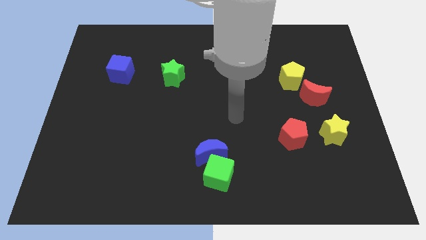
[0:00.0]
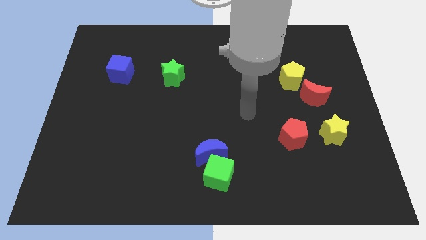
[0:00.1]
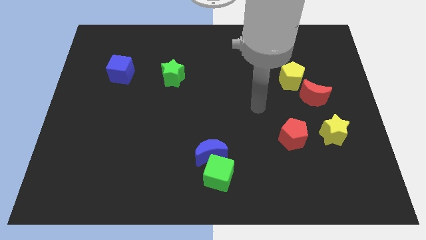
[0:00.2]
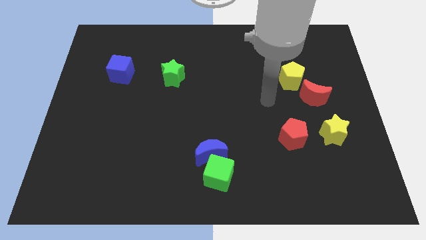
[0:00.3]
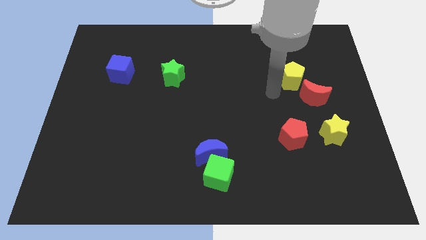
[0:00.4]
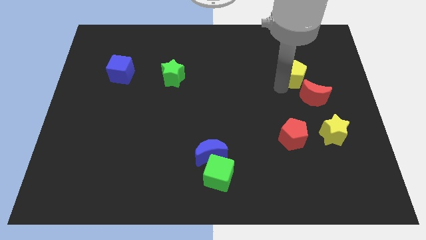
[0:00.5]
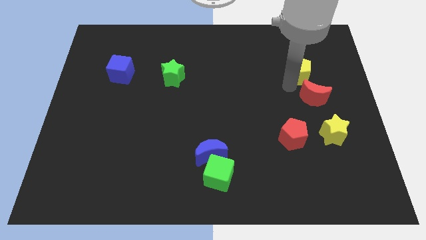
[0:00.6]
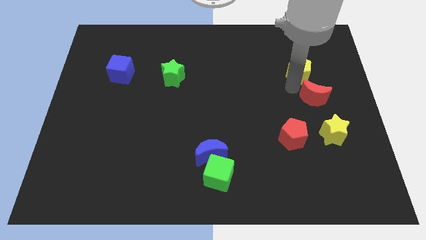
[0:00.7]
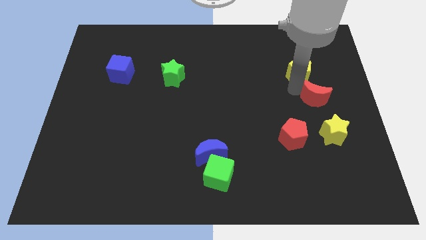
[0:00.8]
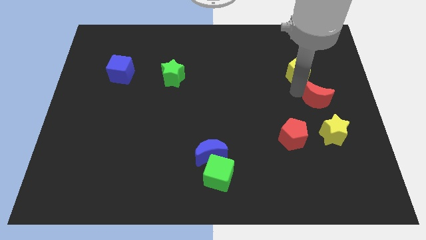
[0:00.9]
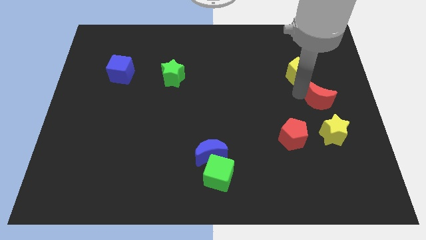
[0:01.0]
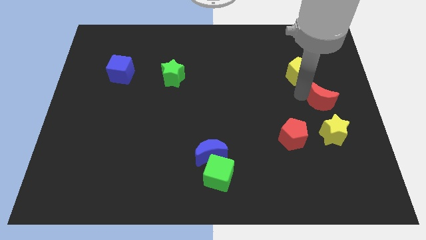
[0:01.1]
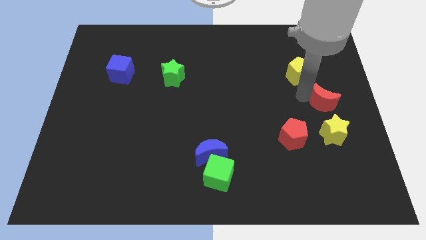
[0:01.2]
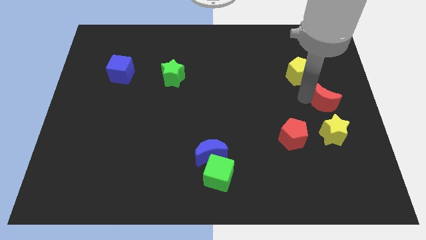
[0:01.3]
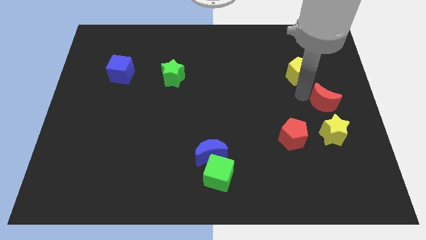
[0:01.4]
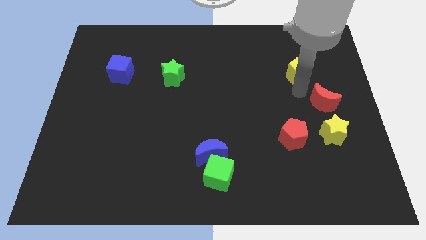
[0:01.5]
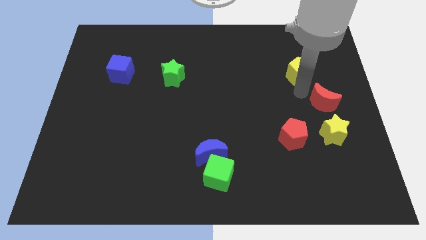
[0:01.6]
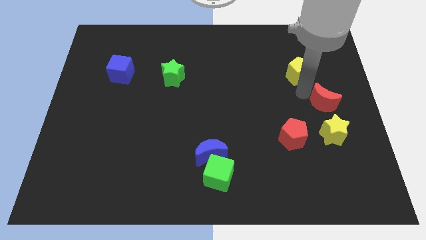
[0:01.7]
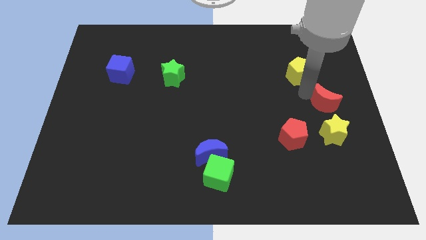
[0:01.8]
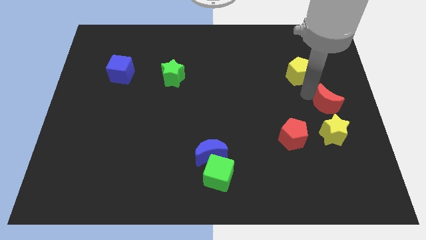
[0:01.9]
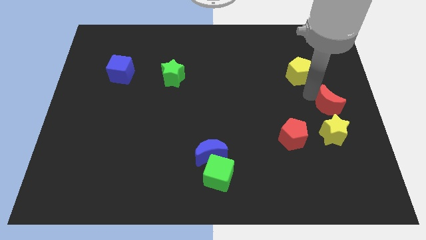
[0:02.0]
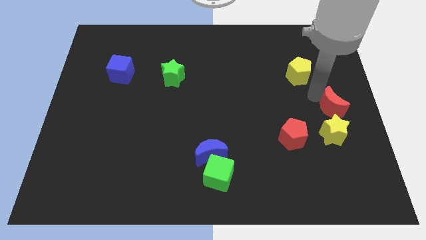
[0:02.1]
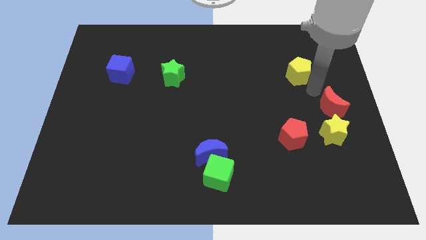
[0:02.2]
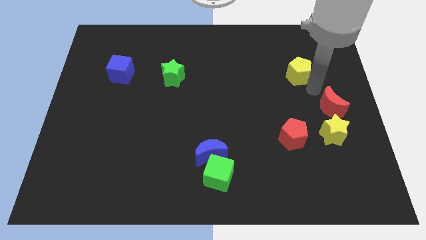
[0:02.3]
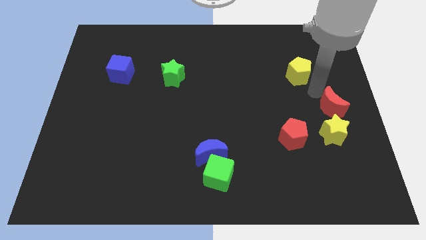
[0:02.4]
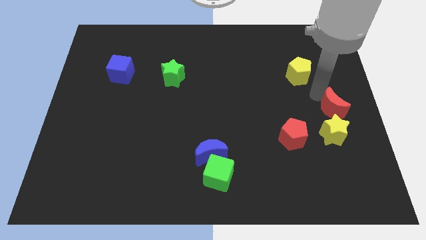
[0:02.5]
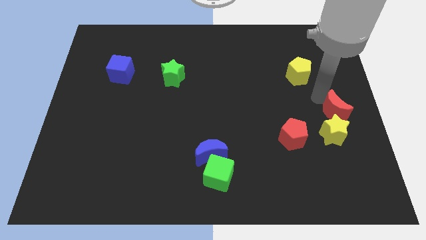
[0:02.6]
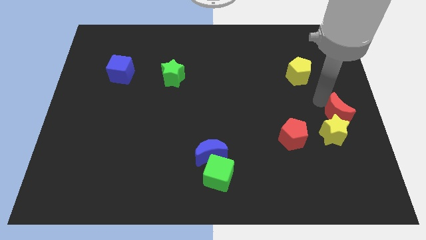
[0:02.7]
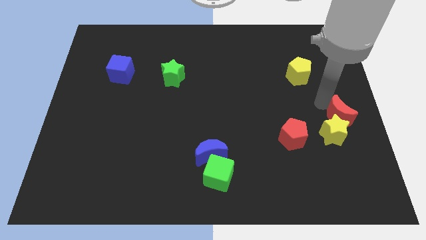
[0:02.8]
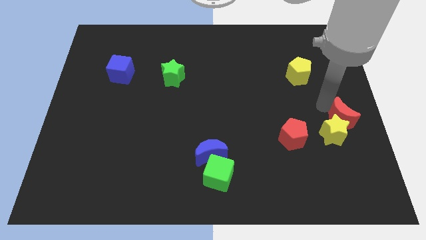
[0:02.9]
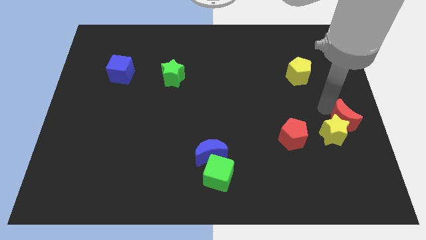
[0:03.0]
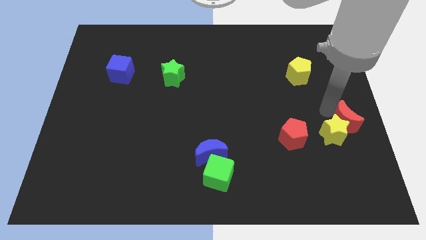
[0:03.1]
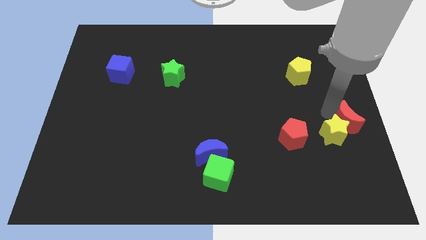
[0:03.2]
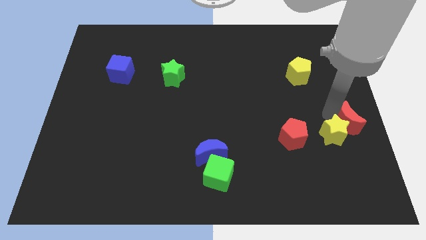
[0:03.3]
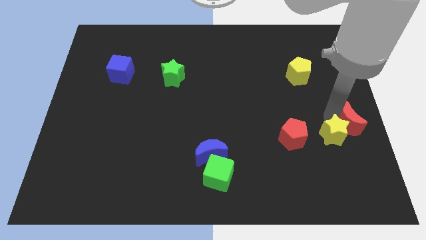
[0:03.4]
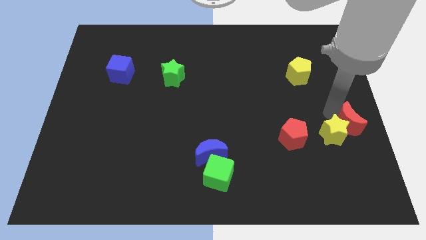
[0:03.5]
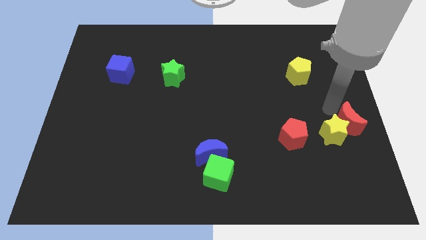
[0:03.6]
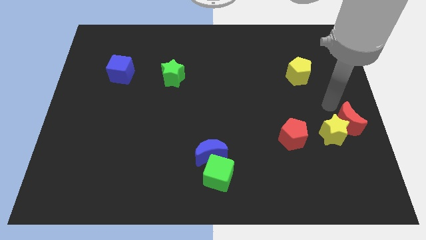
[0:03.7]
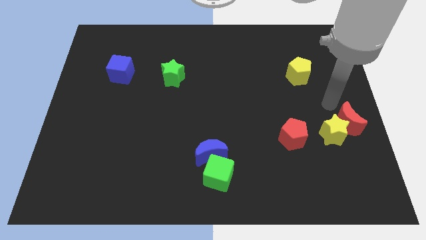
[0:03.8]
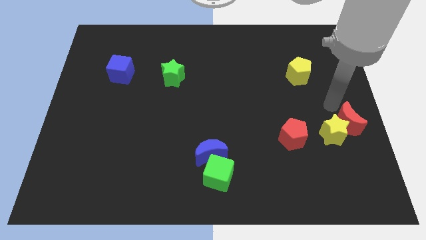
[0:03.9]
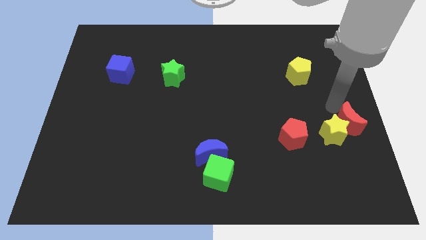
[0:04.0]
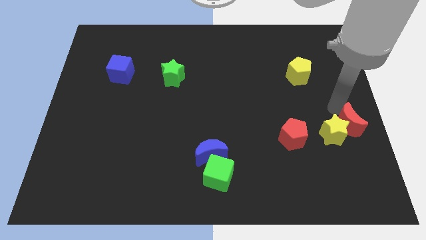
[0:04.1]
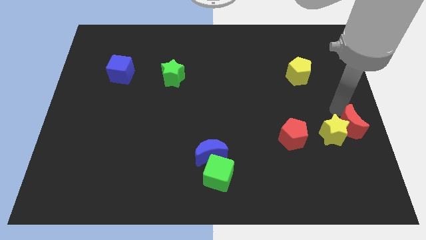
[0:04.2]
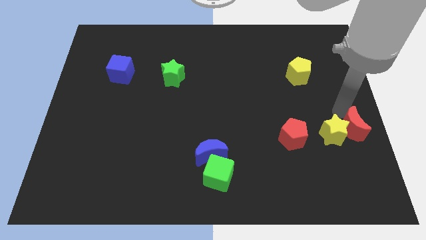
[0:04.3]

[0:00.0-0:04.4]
push the red moon slightly downwards

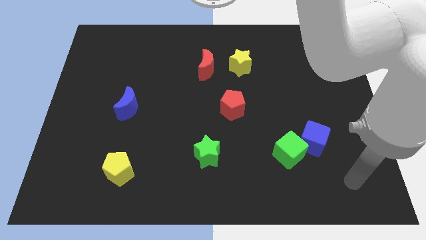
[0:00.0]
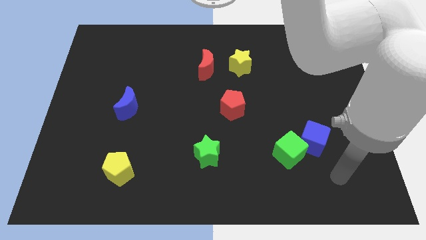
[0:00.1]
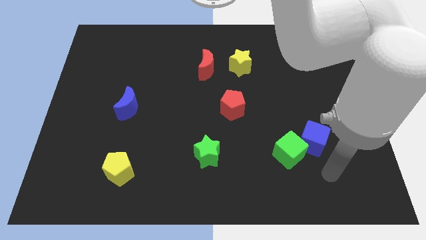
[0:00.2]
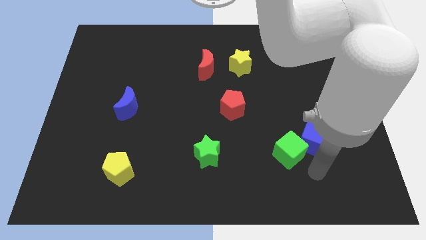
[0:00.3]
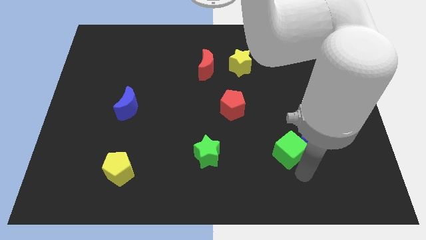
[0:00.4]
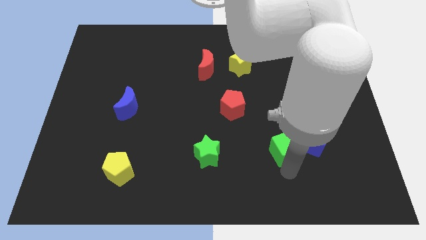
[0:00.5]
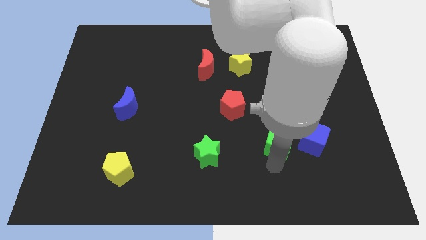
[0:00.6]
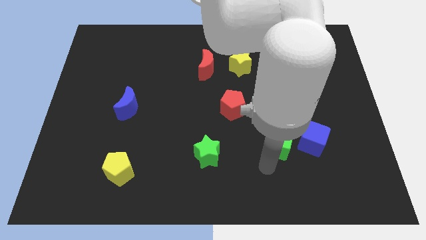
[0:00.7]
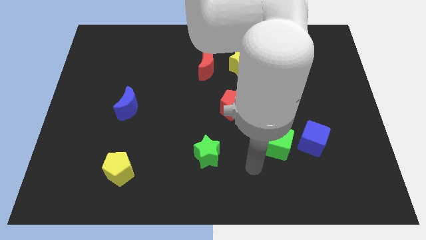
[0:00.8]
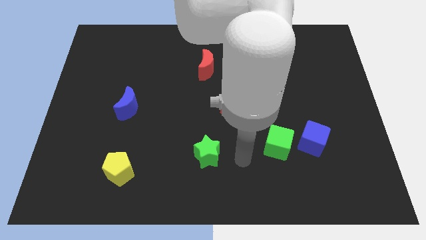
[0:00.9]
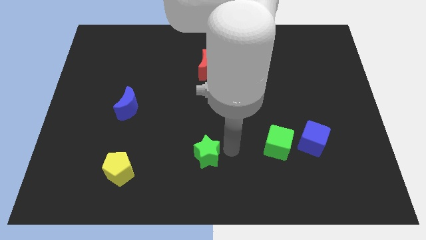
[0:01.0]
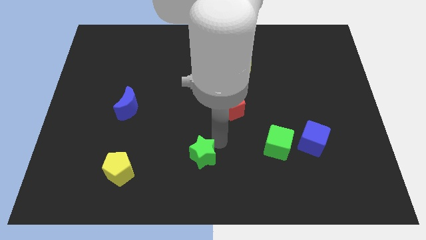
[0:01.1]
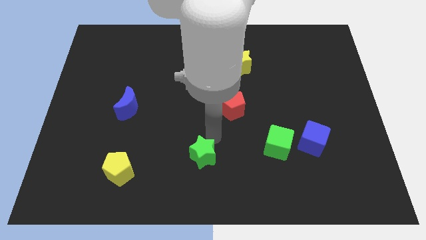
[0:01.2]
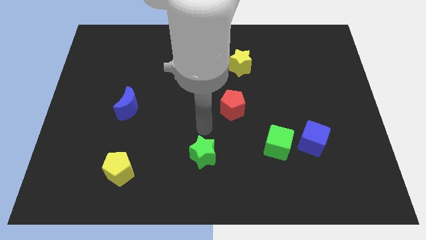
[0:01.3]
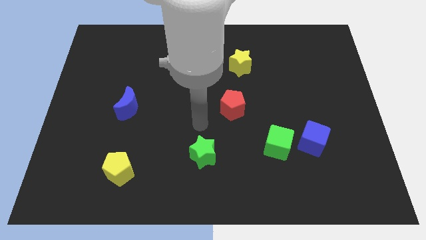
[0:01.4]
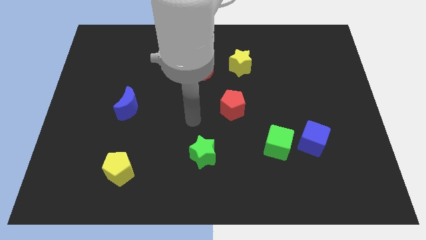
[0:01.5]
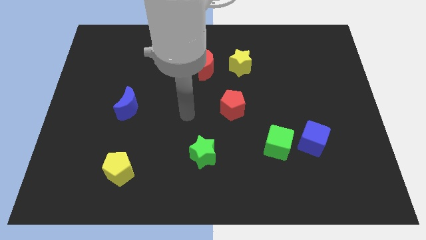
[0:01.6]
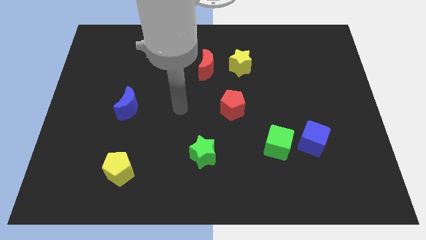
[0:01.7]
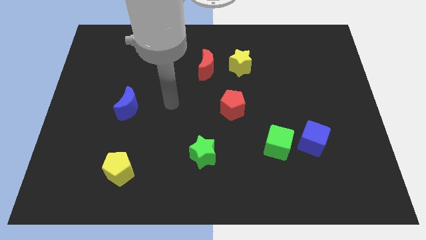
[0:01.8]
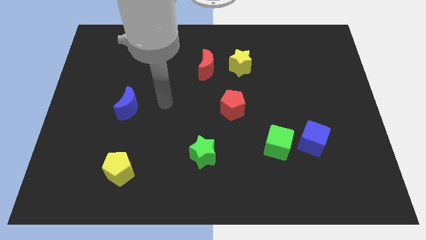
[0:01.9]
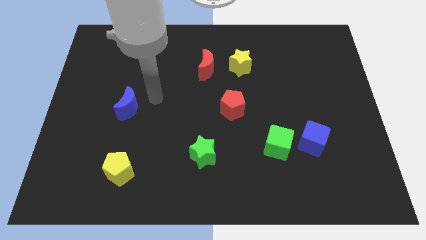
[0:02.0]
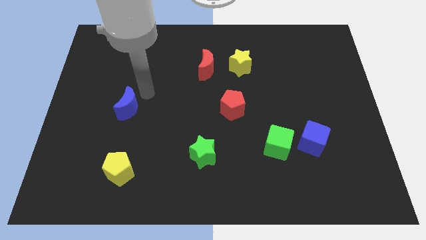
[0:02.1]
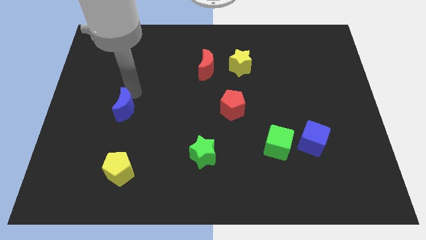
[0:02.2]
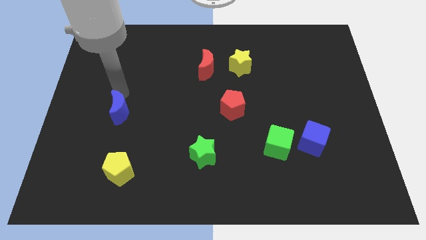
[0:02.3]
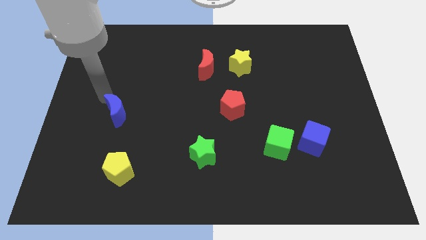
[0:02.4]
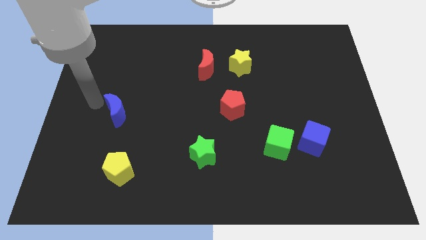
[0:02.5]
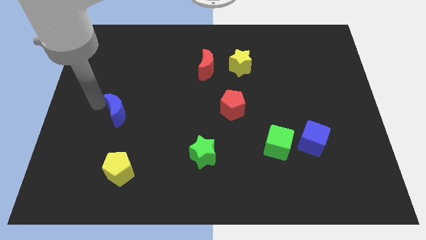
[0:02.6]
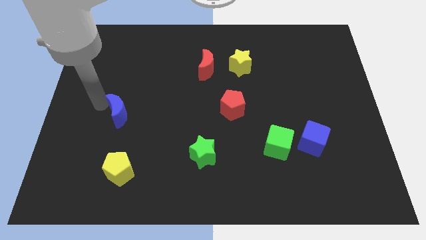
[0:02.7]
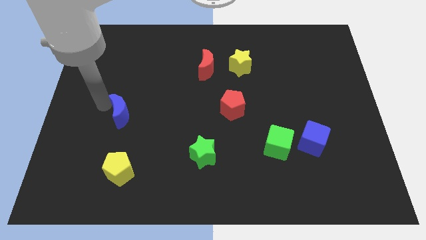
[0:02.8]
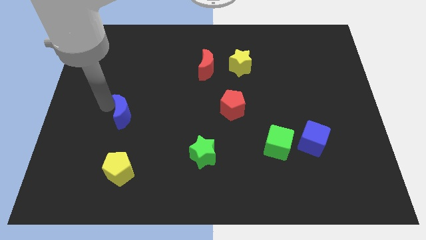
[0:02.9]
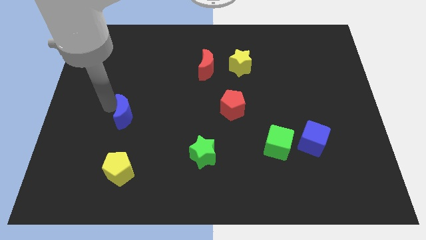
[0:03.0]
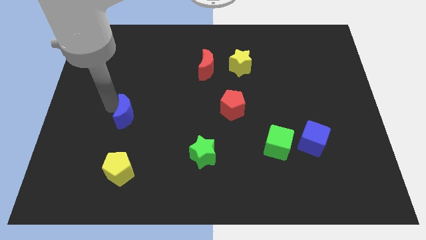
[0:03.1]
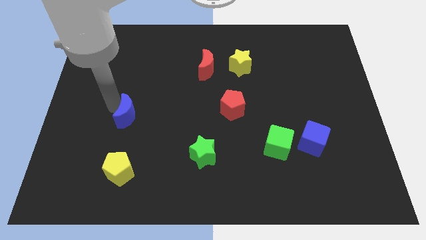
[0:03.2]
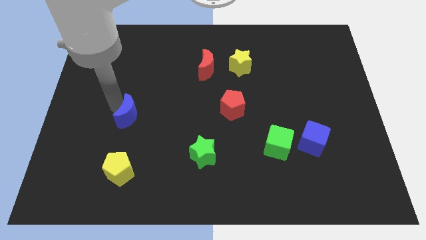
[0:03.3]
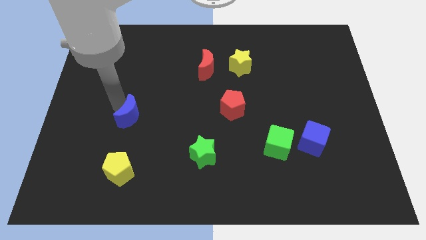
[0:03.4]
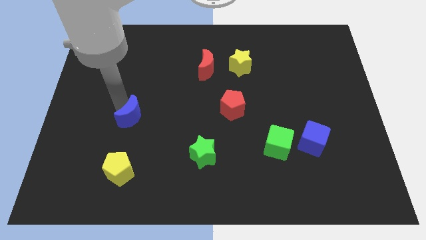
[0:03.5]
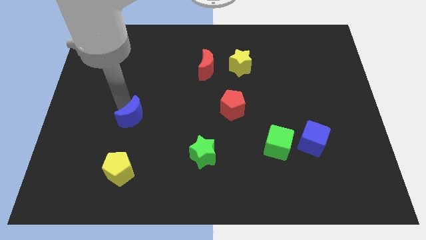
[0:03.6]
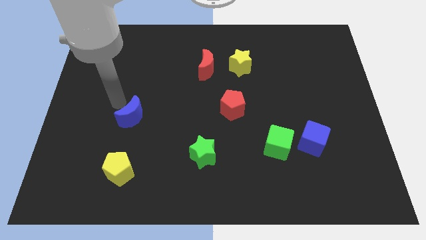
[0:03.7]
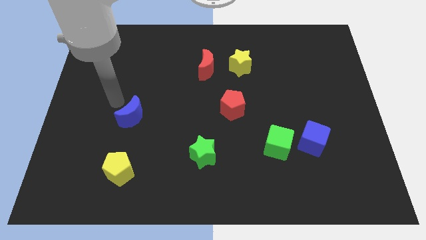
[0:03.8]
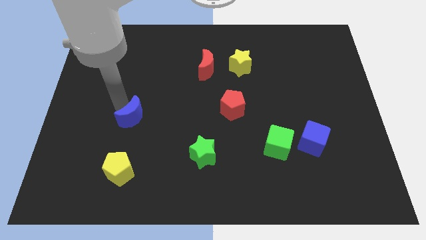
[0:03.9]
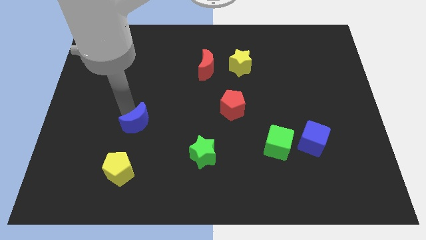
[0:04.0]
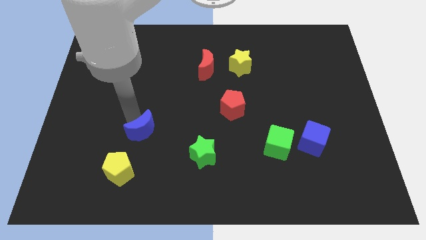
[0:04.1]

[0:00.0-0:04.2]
slide the blue moon downwards and to the right slightly
